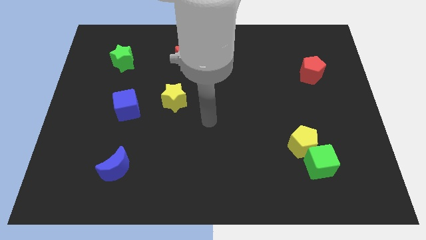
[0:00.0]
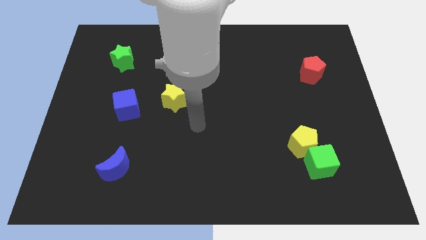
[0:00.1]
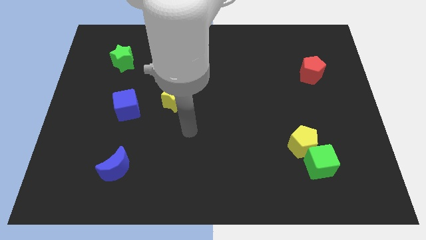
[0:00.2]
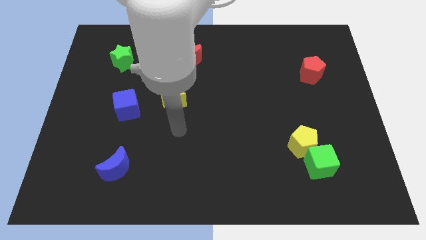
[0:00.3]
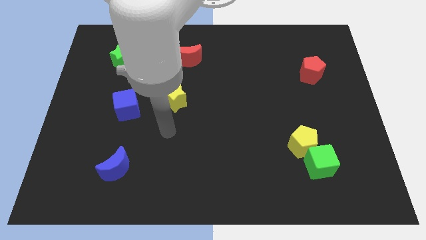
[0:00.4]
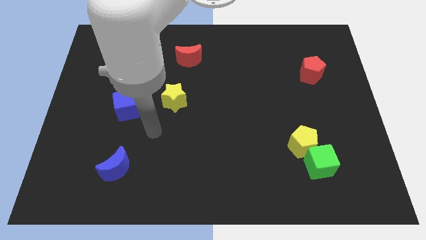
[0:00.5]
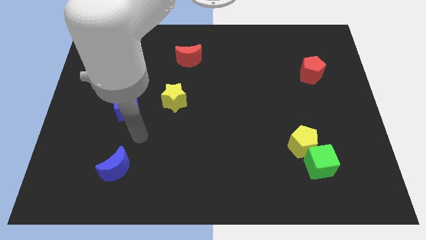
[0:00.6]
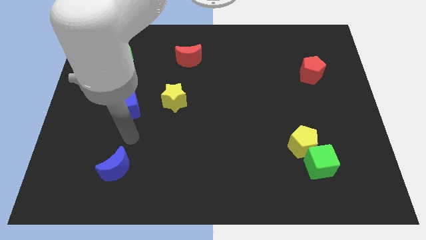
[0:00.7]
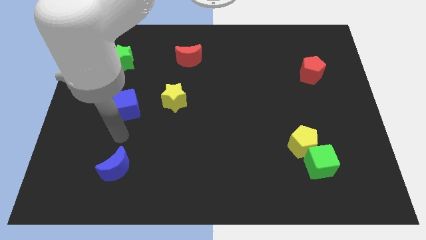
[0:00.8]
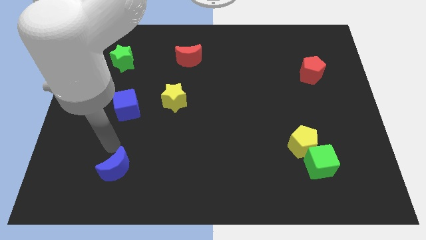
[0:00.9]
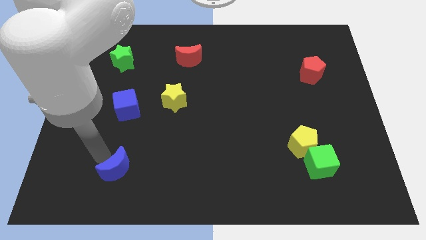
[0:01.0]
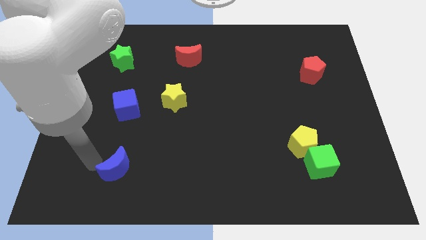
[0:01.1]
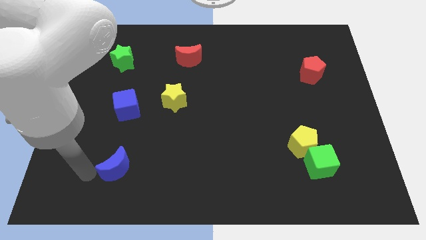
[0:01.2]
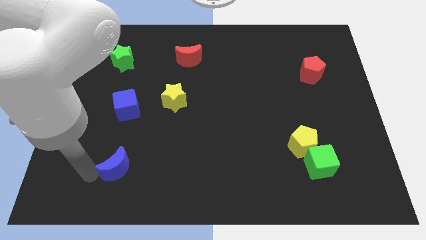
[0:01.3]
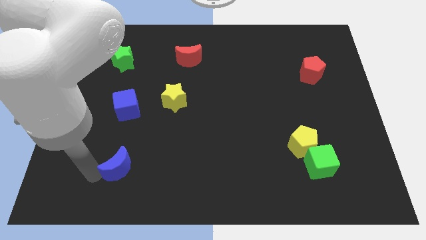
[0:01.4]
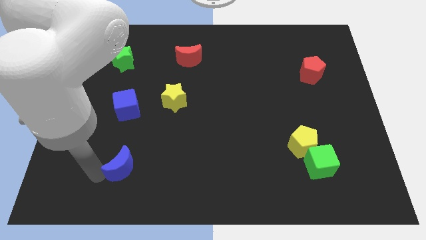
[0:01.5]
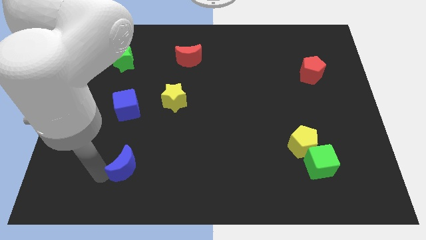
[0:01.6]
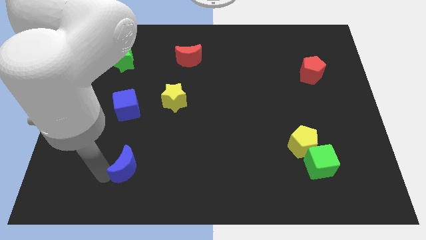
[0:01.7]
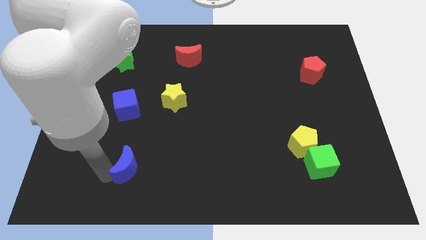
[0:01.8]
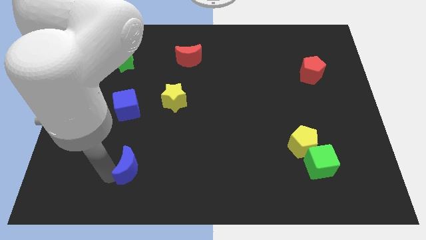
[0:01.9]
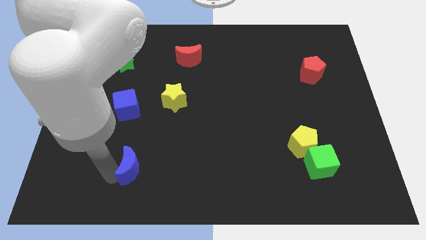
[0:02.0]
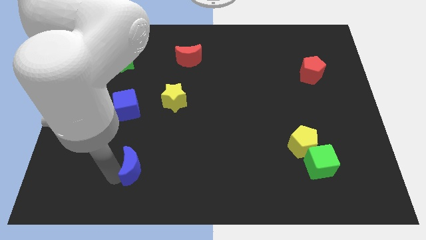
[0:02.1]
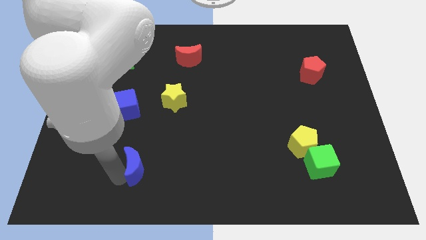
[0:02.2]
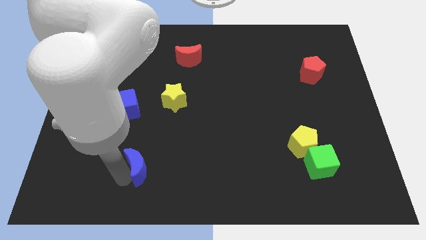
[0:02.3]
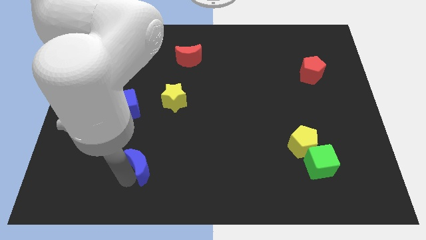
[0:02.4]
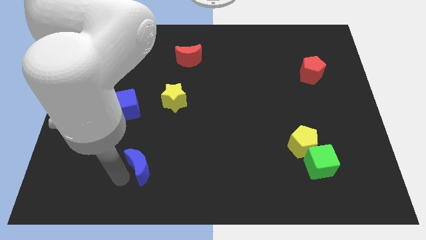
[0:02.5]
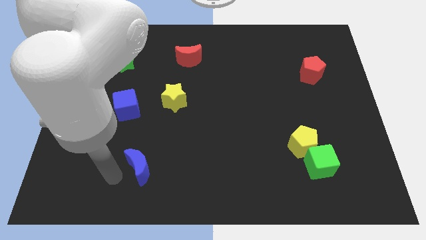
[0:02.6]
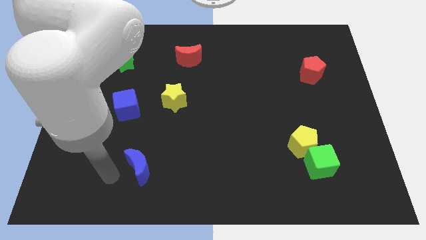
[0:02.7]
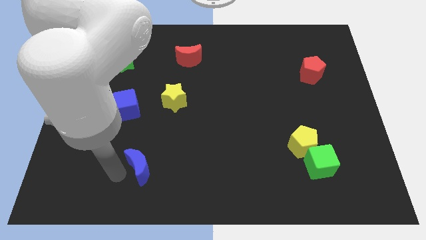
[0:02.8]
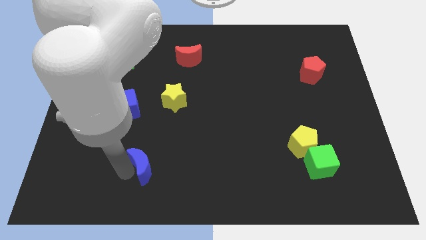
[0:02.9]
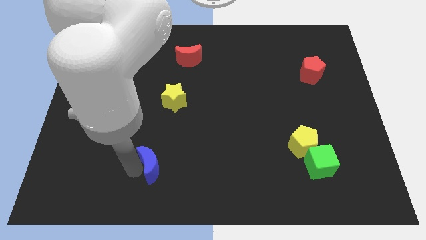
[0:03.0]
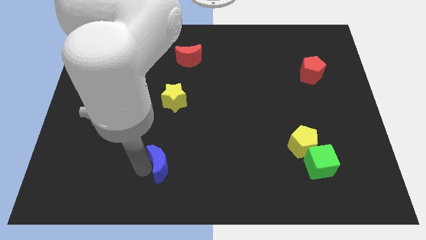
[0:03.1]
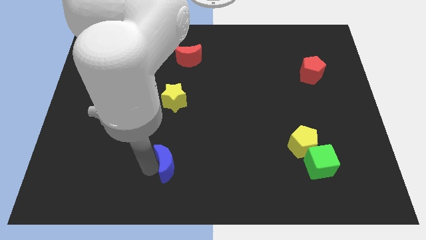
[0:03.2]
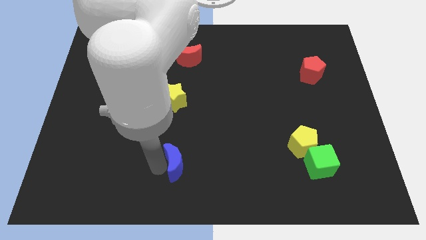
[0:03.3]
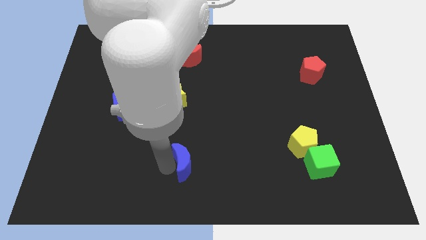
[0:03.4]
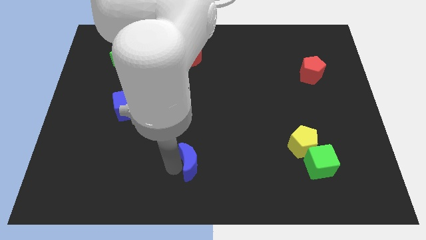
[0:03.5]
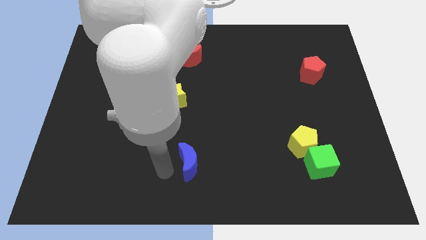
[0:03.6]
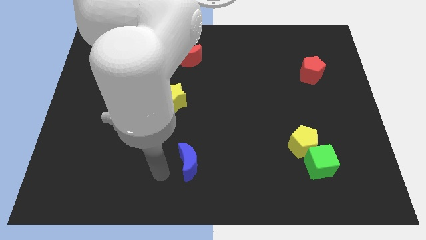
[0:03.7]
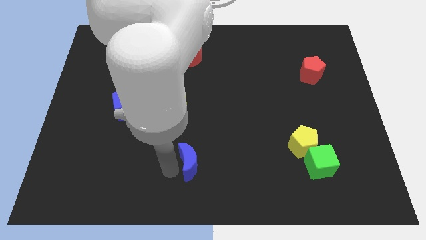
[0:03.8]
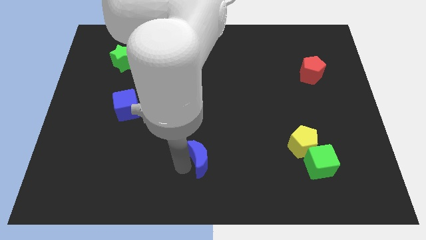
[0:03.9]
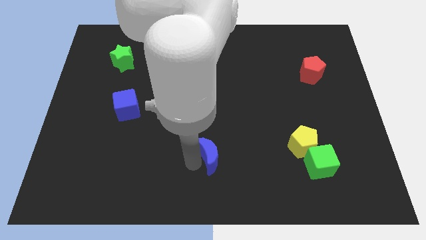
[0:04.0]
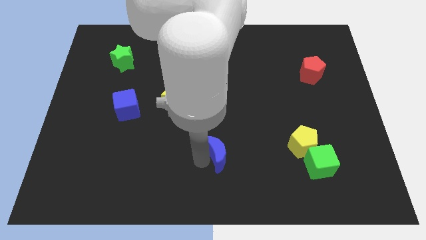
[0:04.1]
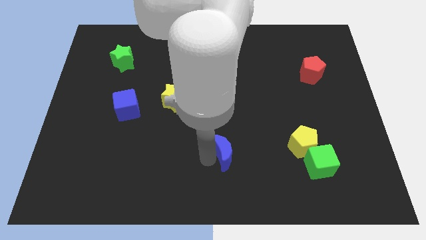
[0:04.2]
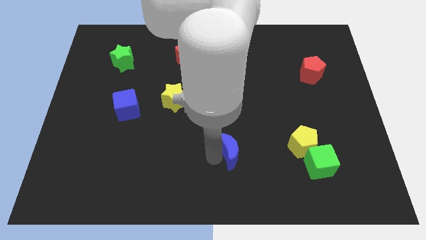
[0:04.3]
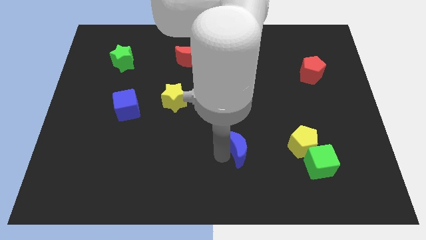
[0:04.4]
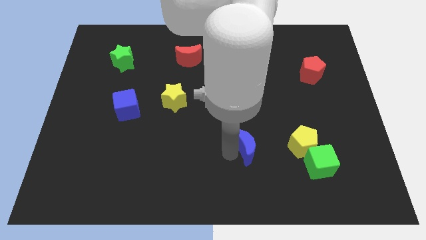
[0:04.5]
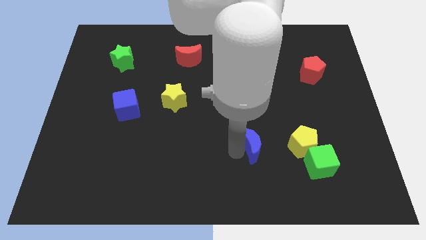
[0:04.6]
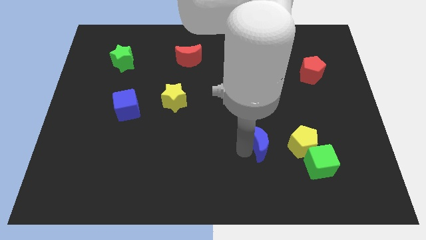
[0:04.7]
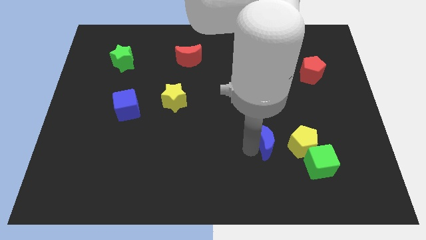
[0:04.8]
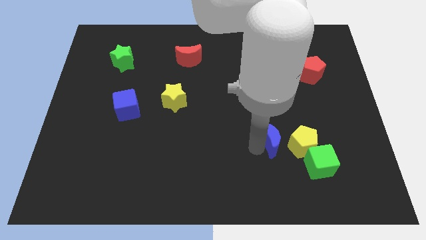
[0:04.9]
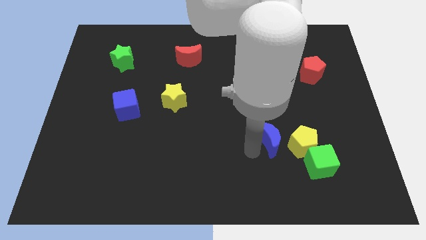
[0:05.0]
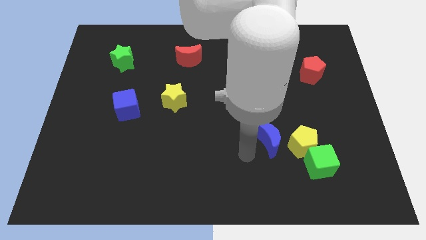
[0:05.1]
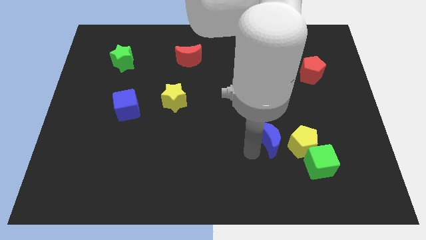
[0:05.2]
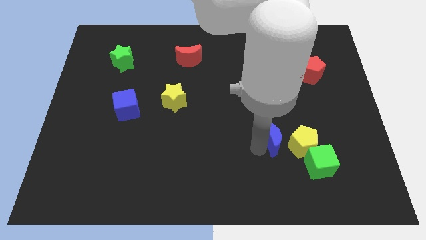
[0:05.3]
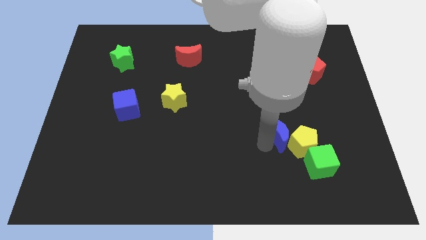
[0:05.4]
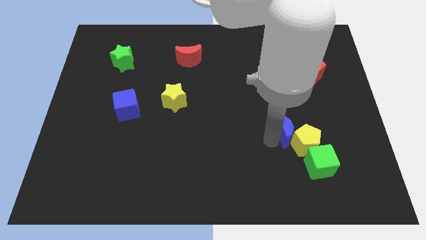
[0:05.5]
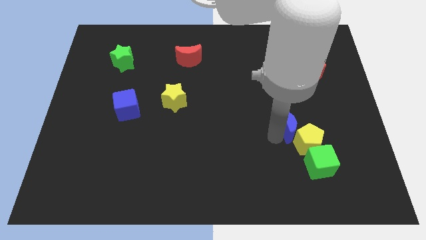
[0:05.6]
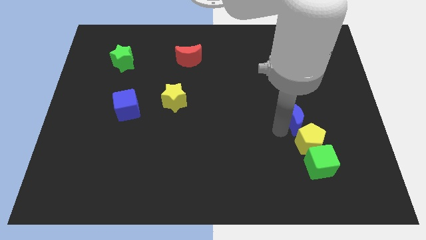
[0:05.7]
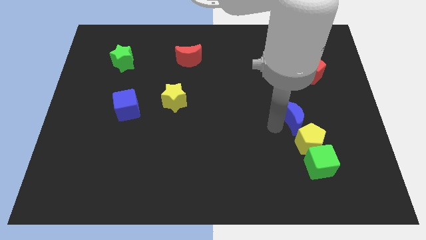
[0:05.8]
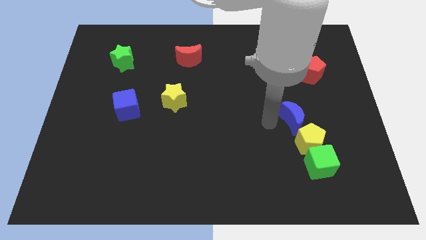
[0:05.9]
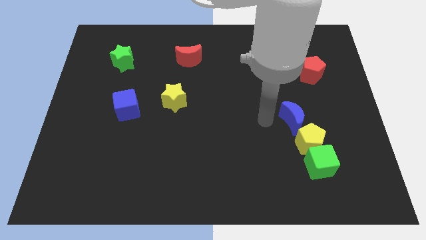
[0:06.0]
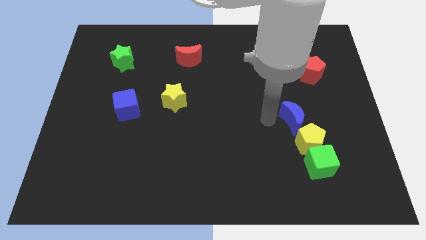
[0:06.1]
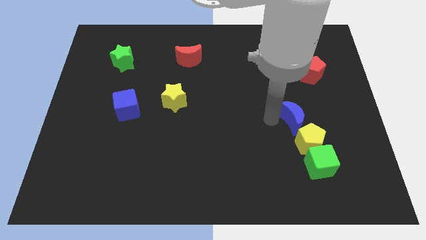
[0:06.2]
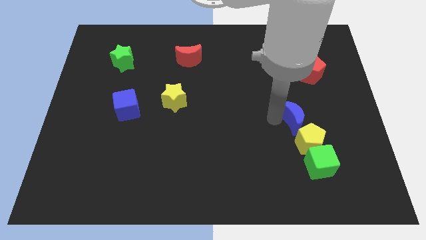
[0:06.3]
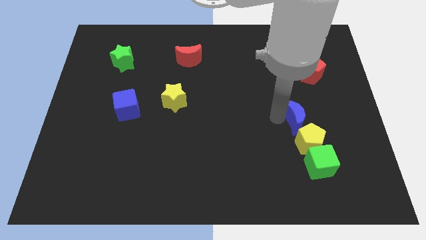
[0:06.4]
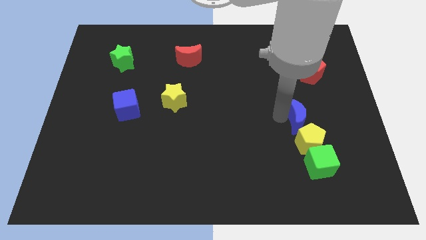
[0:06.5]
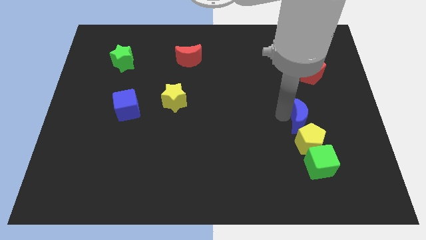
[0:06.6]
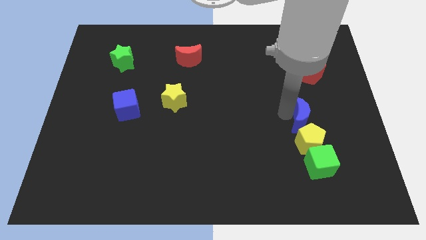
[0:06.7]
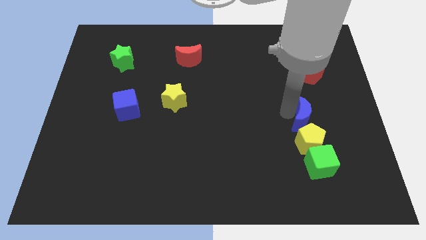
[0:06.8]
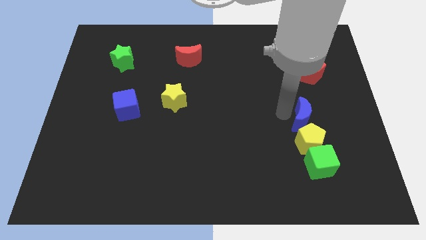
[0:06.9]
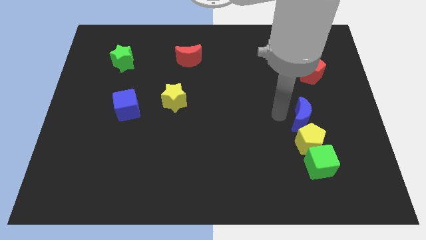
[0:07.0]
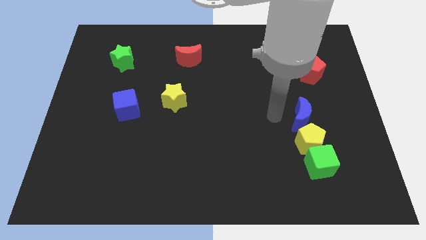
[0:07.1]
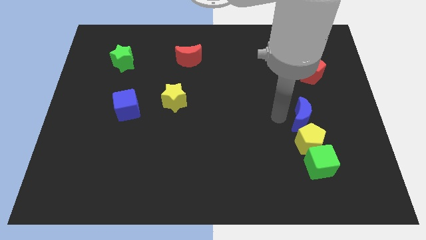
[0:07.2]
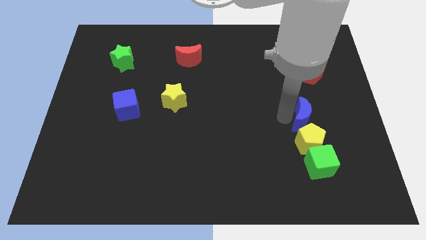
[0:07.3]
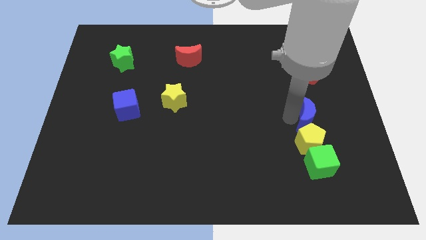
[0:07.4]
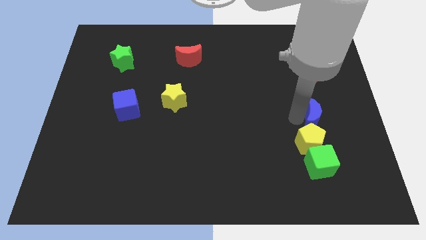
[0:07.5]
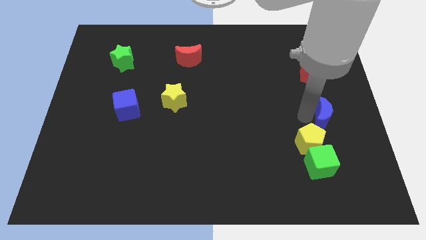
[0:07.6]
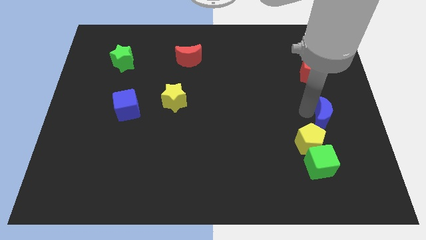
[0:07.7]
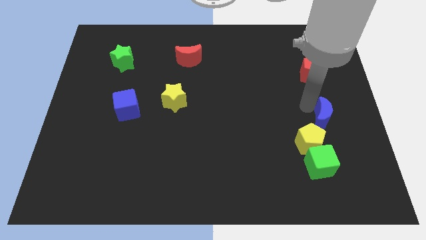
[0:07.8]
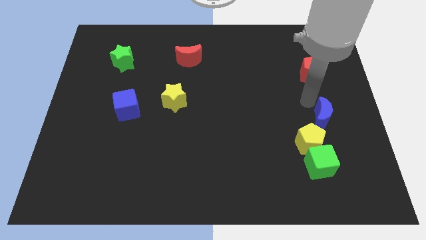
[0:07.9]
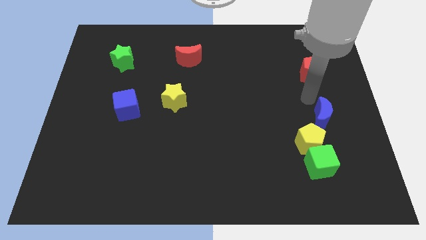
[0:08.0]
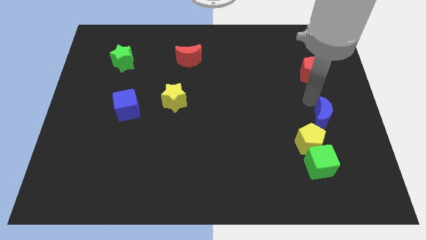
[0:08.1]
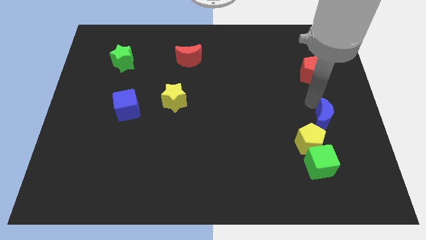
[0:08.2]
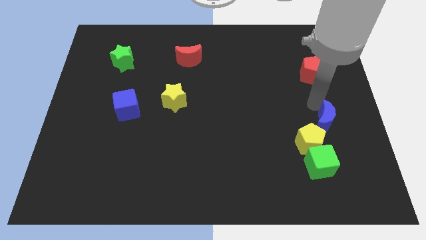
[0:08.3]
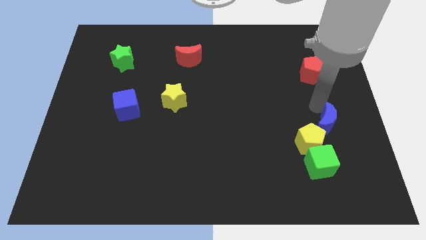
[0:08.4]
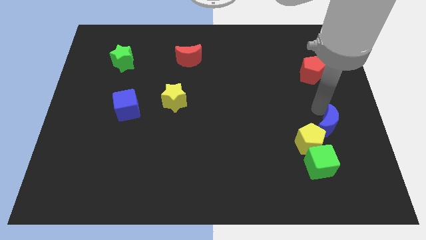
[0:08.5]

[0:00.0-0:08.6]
slide the blue moon to the top right of the green cube
